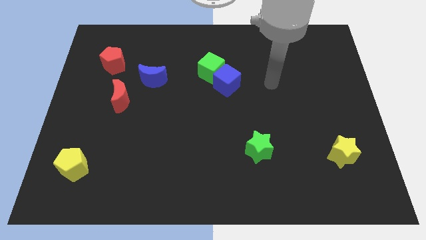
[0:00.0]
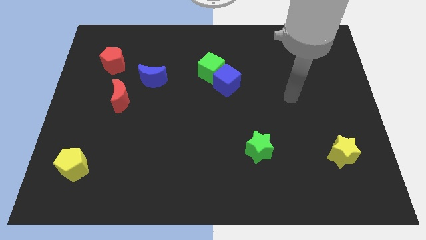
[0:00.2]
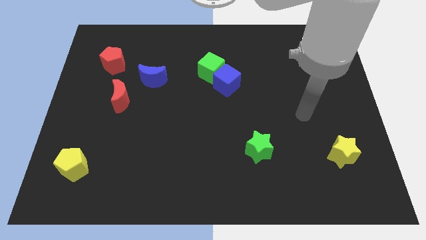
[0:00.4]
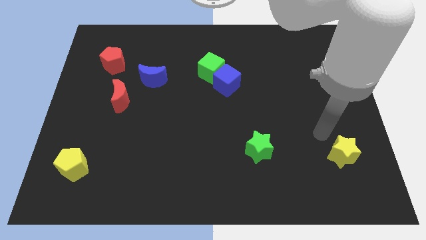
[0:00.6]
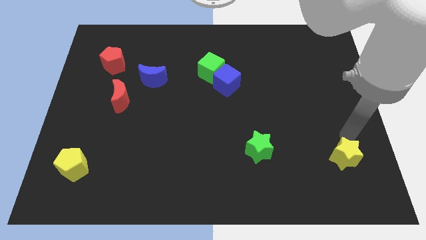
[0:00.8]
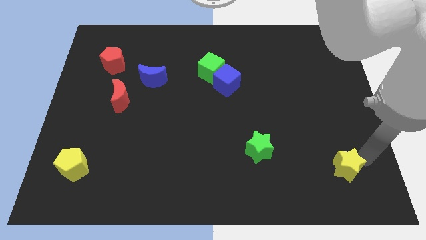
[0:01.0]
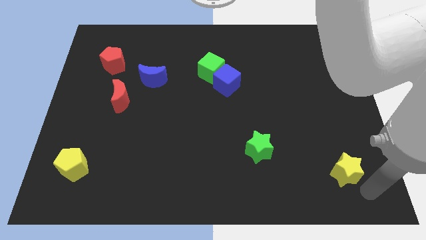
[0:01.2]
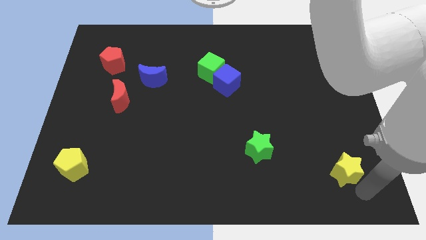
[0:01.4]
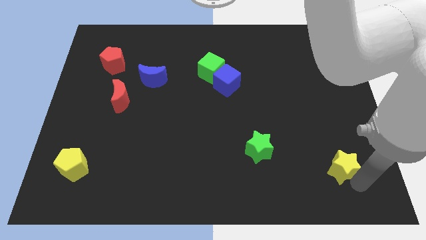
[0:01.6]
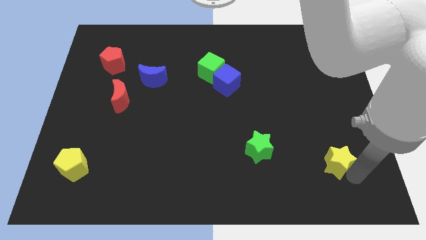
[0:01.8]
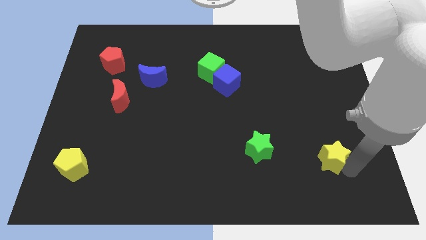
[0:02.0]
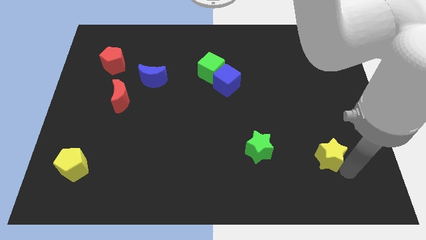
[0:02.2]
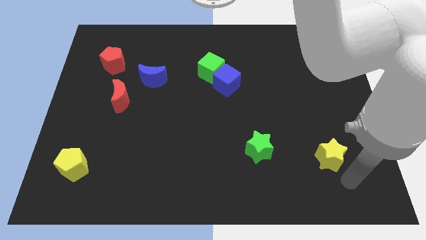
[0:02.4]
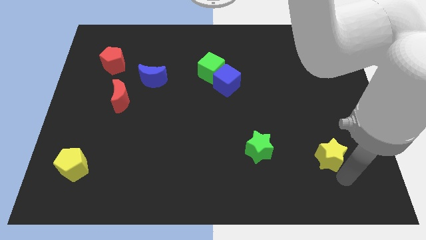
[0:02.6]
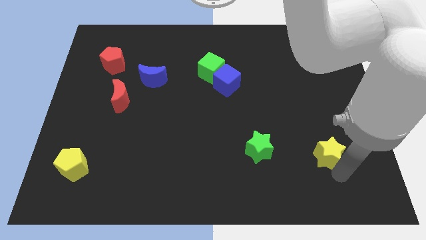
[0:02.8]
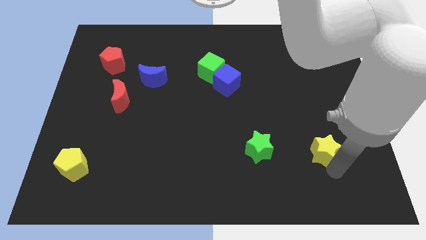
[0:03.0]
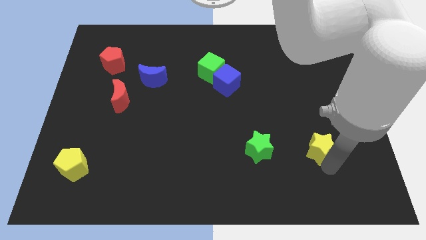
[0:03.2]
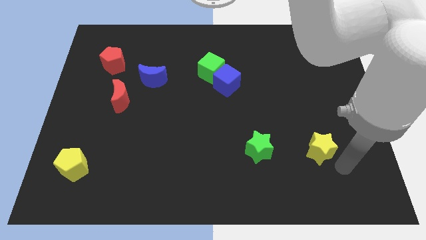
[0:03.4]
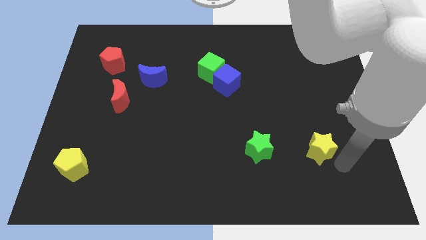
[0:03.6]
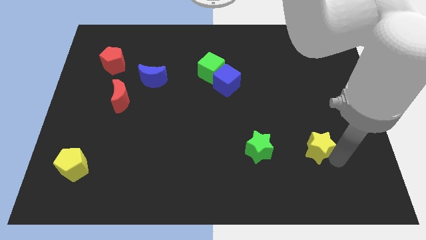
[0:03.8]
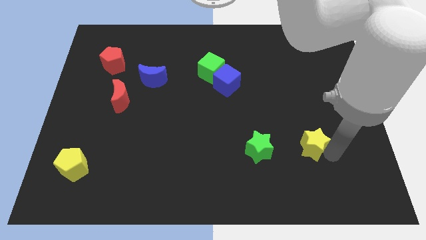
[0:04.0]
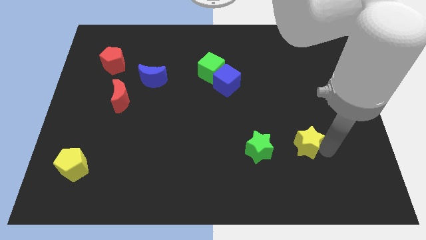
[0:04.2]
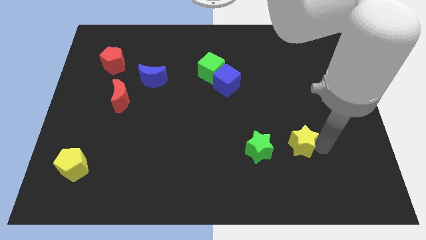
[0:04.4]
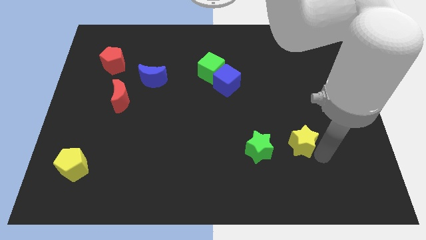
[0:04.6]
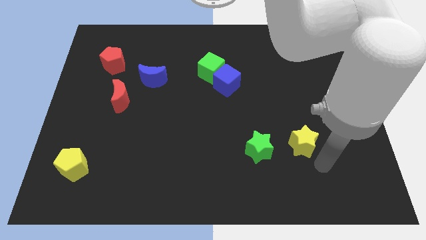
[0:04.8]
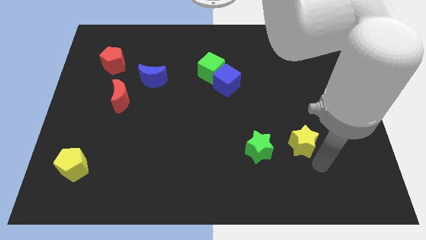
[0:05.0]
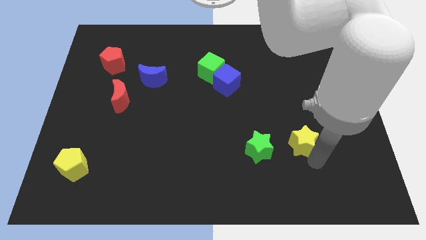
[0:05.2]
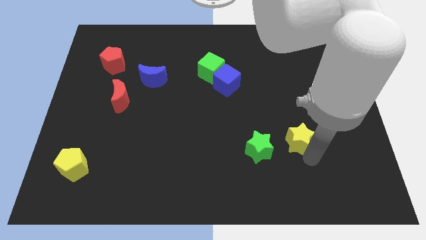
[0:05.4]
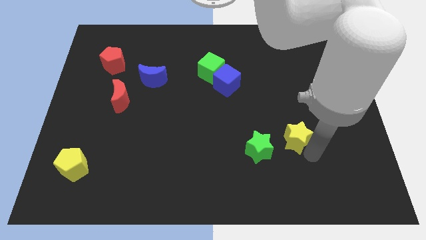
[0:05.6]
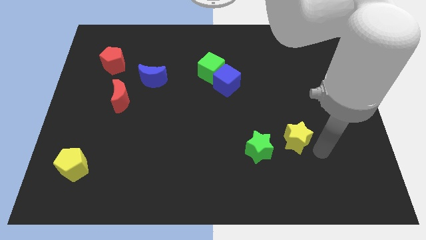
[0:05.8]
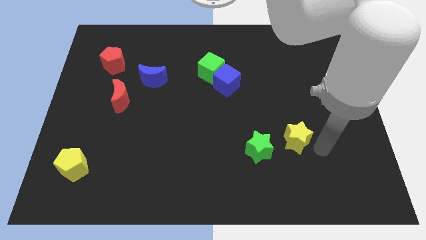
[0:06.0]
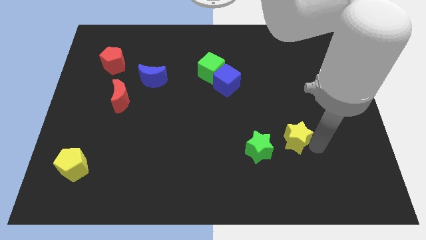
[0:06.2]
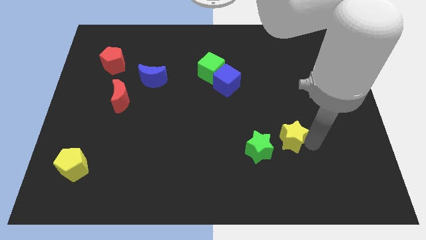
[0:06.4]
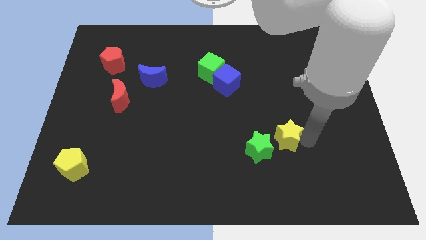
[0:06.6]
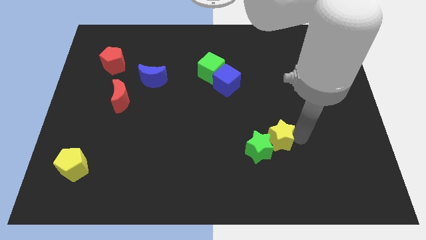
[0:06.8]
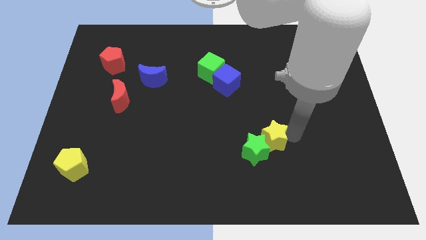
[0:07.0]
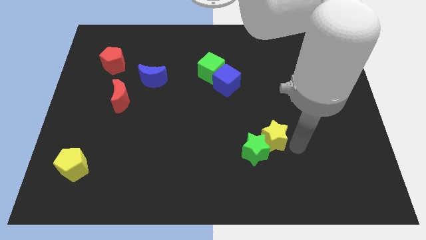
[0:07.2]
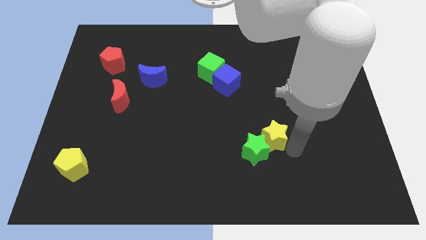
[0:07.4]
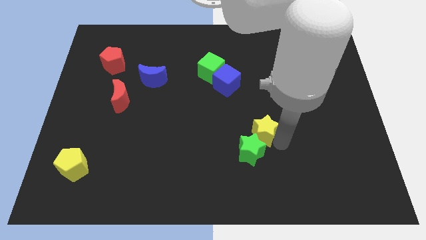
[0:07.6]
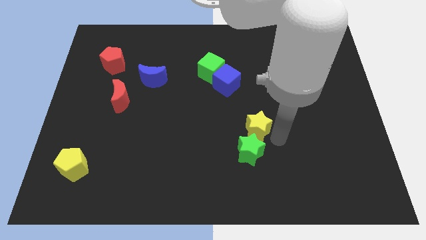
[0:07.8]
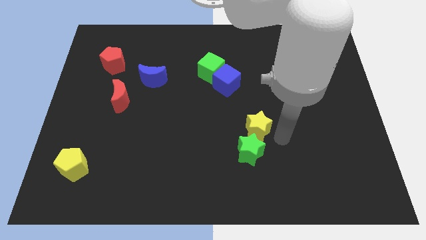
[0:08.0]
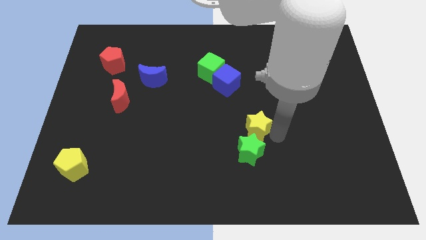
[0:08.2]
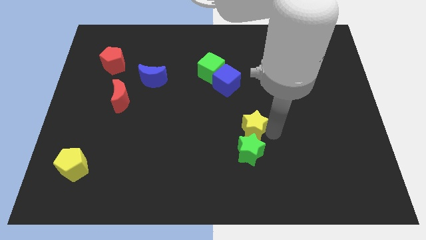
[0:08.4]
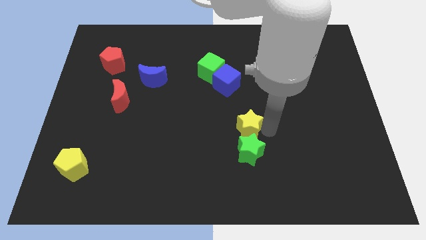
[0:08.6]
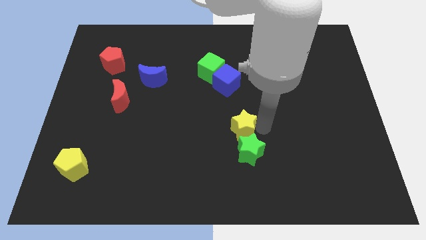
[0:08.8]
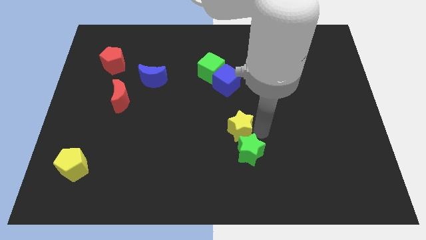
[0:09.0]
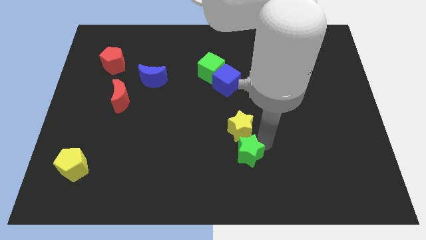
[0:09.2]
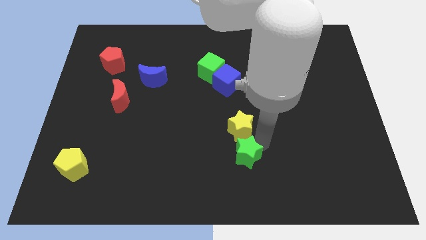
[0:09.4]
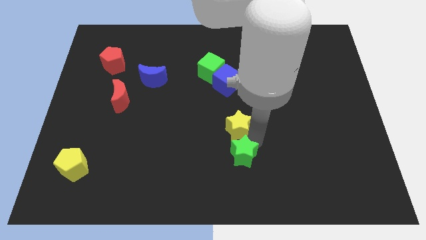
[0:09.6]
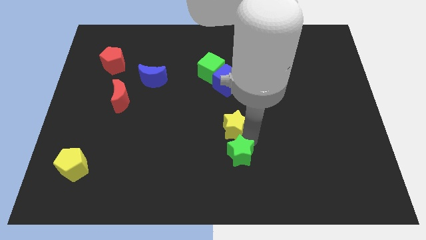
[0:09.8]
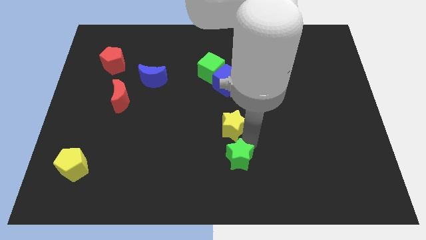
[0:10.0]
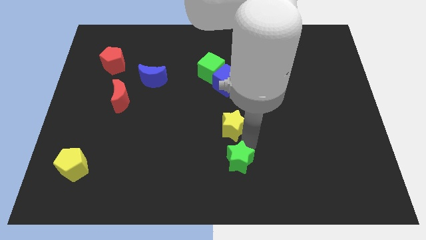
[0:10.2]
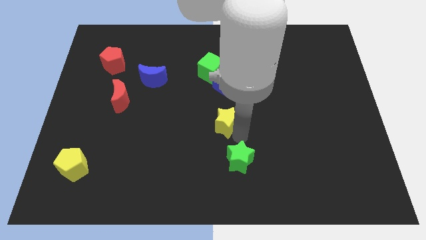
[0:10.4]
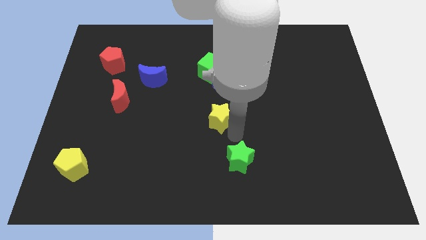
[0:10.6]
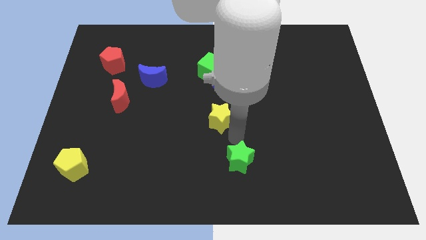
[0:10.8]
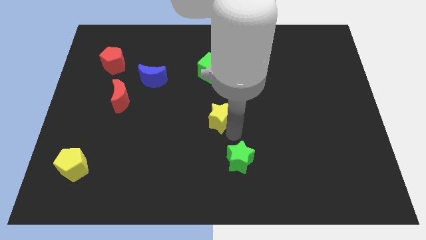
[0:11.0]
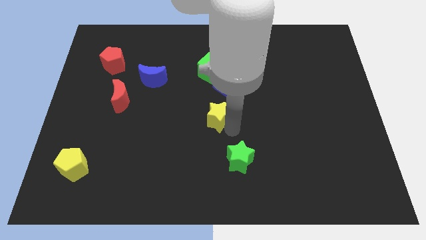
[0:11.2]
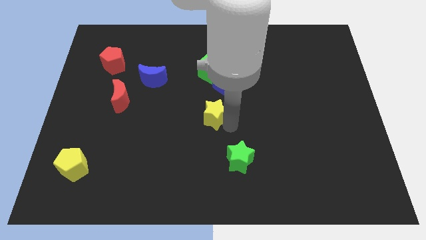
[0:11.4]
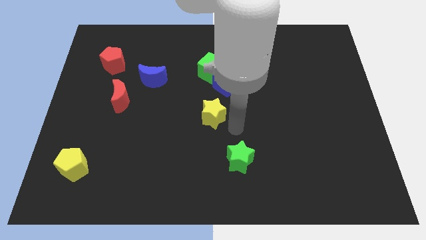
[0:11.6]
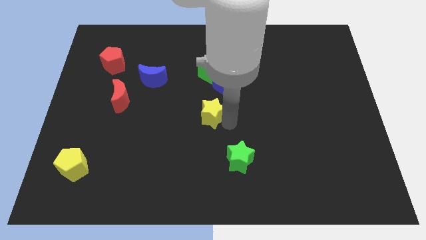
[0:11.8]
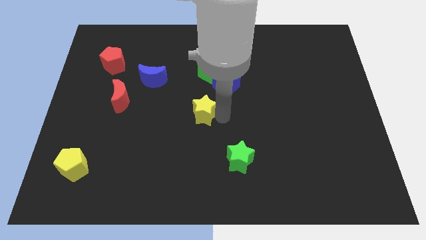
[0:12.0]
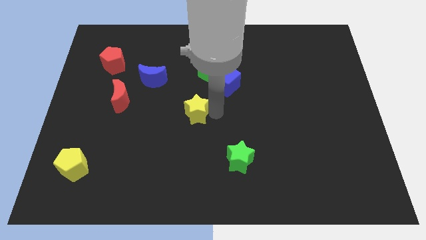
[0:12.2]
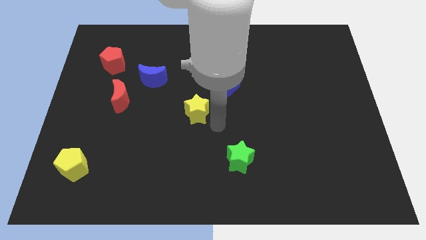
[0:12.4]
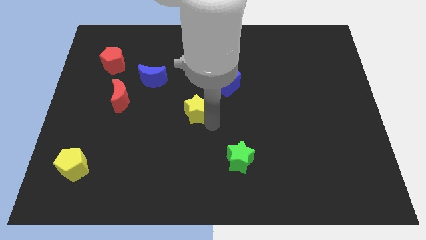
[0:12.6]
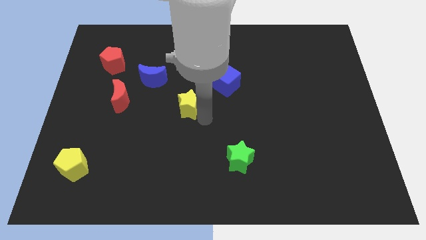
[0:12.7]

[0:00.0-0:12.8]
put the yellow star to the bottom right side of the blue moon

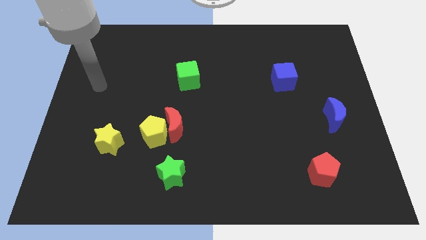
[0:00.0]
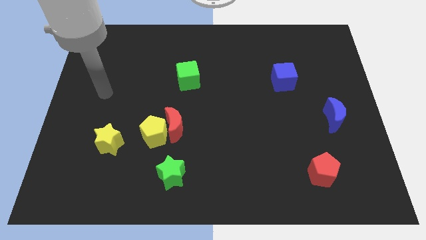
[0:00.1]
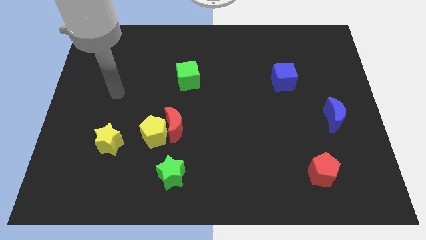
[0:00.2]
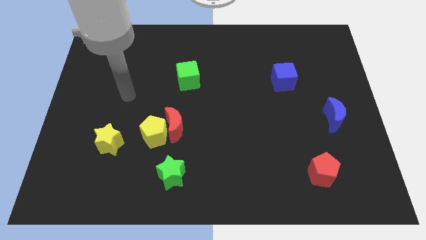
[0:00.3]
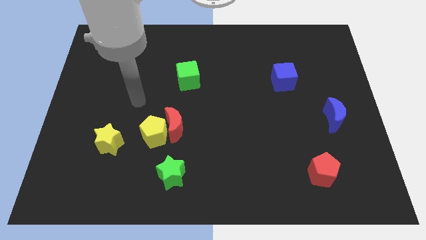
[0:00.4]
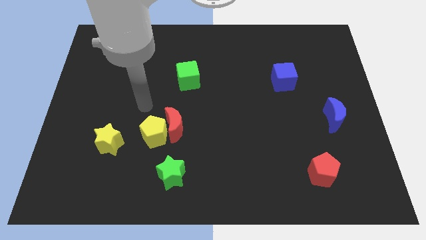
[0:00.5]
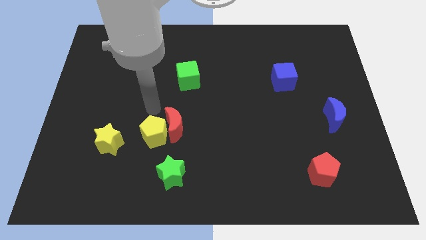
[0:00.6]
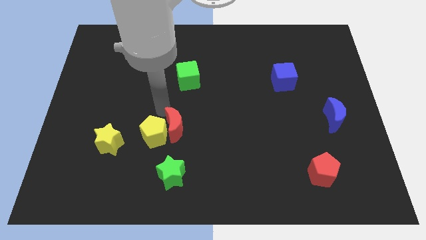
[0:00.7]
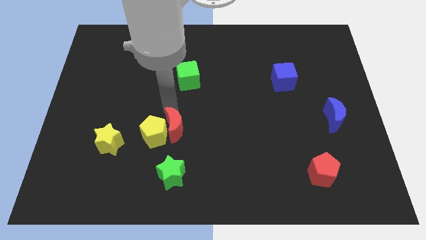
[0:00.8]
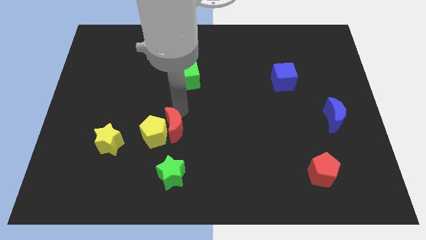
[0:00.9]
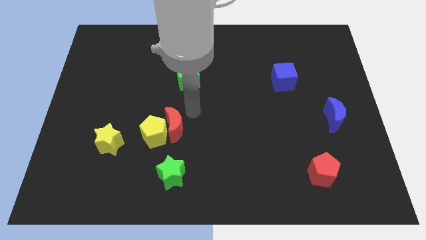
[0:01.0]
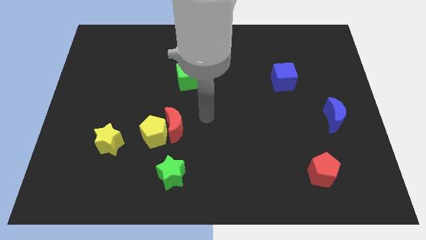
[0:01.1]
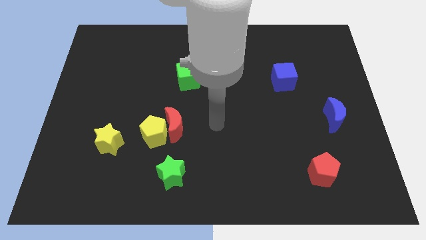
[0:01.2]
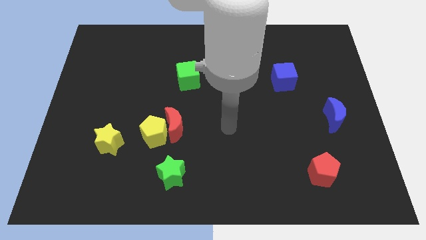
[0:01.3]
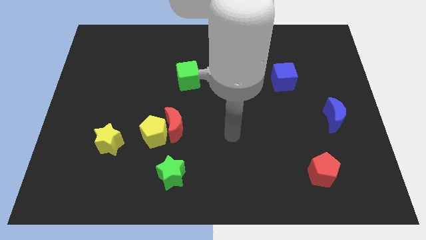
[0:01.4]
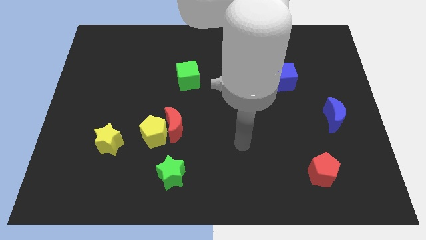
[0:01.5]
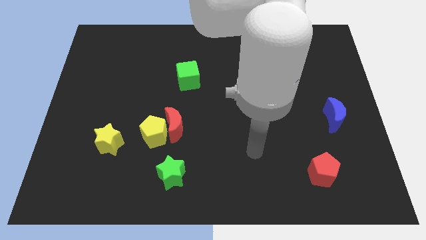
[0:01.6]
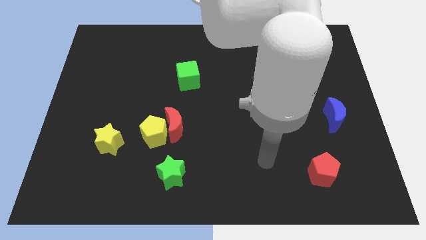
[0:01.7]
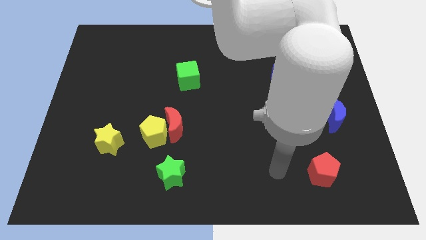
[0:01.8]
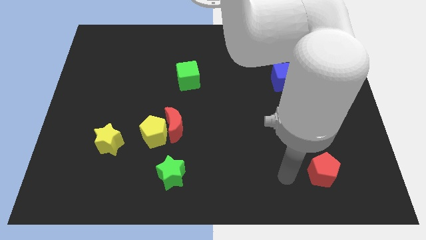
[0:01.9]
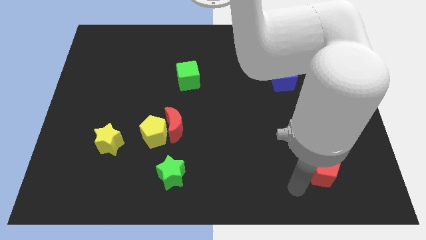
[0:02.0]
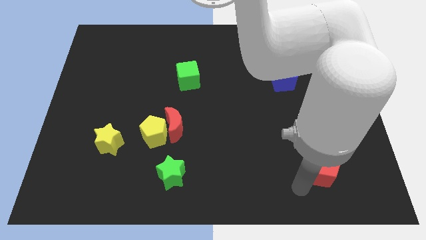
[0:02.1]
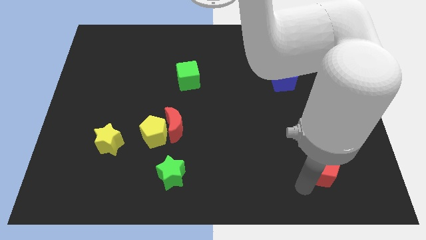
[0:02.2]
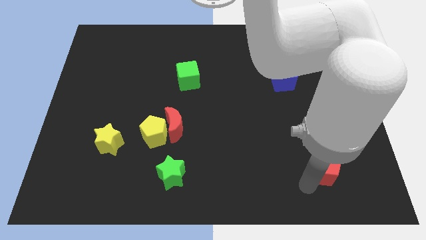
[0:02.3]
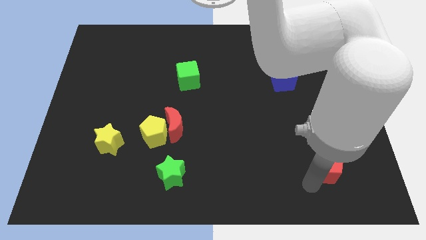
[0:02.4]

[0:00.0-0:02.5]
move the red pentagon to the bottom of the blue moon
